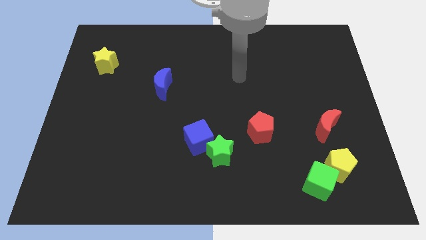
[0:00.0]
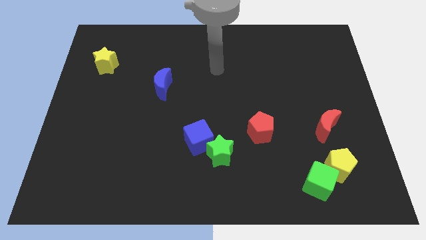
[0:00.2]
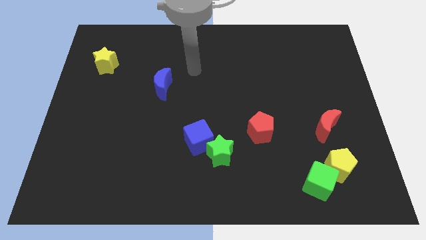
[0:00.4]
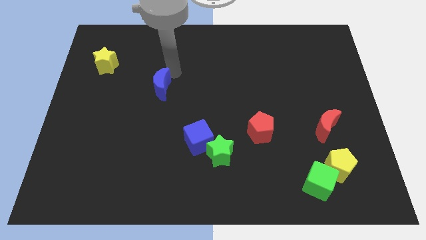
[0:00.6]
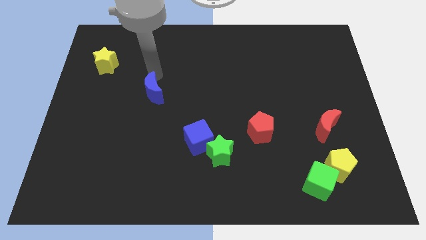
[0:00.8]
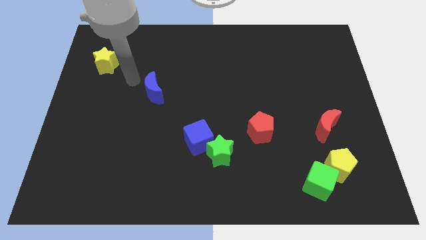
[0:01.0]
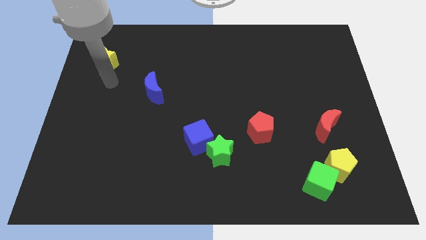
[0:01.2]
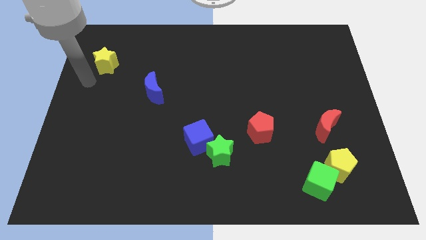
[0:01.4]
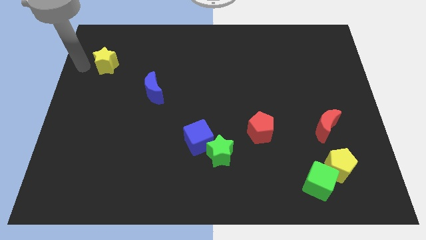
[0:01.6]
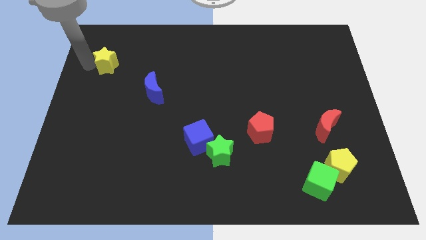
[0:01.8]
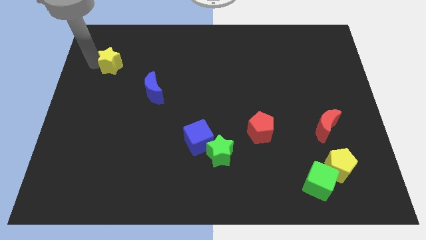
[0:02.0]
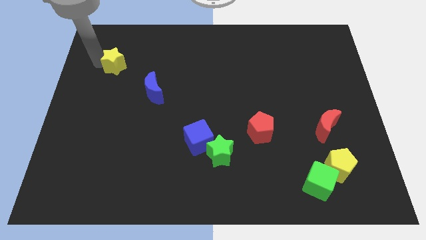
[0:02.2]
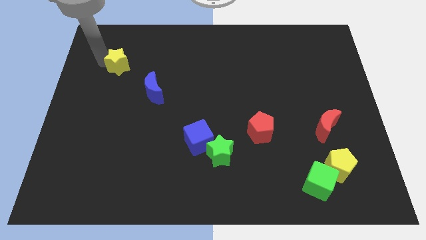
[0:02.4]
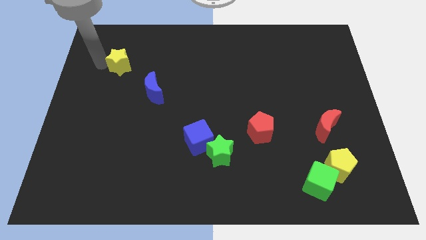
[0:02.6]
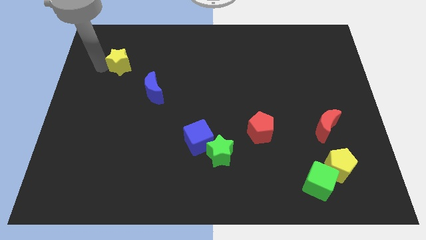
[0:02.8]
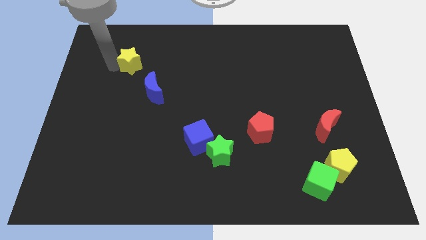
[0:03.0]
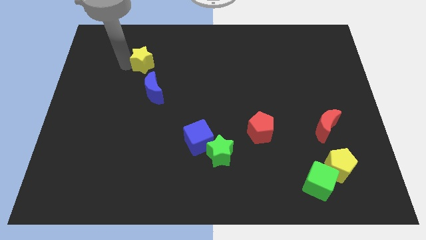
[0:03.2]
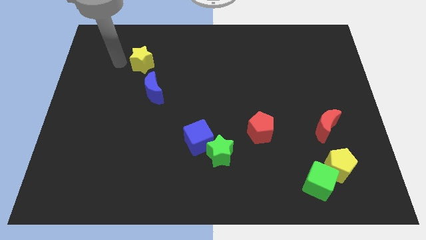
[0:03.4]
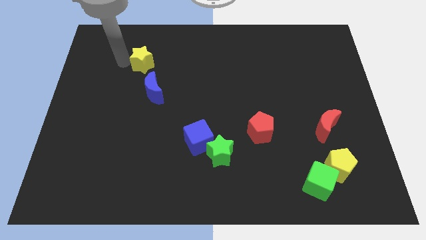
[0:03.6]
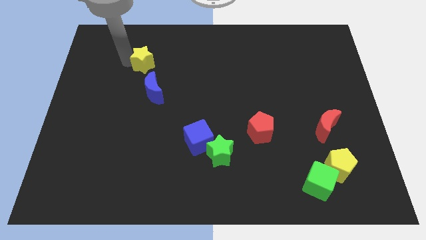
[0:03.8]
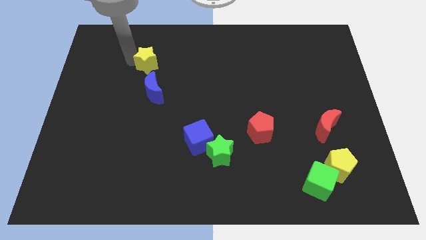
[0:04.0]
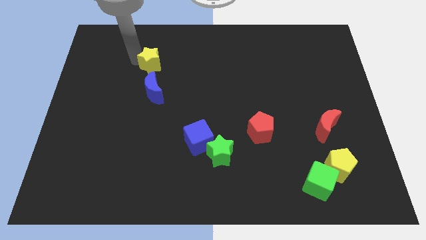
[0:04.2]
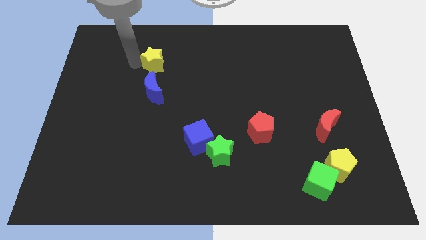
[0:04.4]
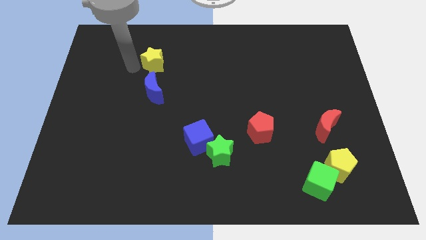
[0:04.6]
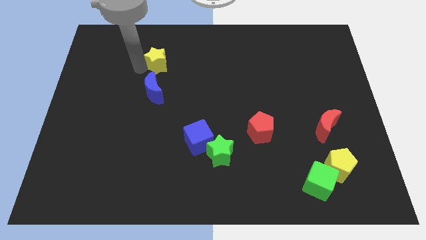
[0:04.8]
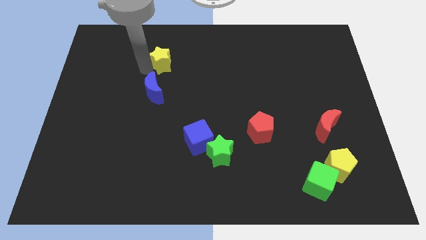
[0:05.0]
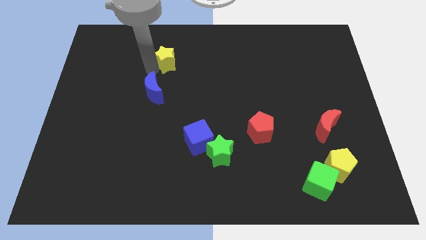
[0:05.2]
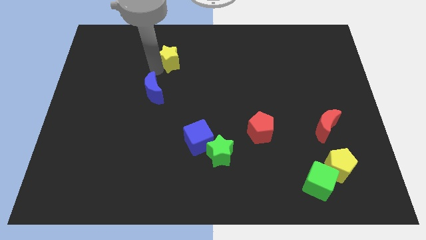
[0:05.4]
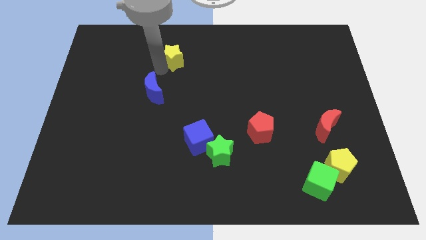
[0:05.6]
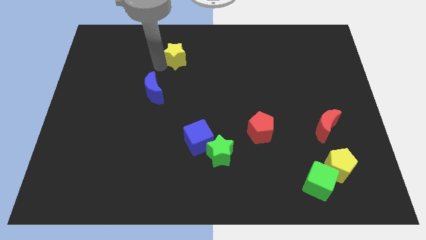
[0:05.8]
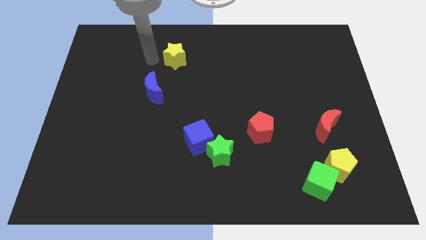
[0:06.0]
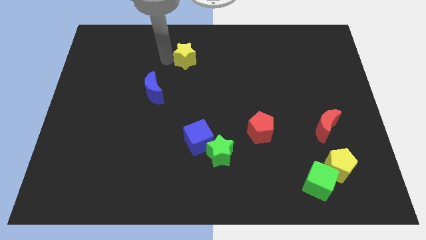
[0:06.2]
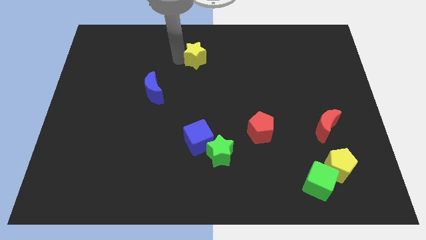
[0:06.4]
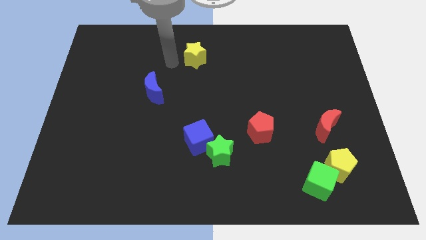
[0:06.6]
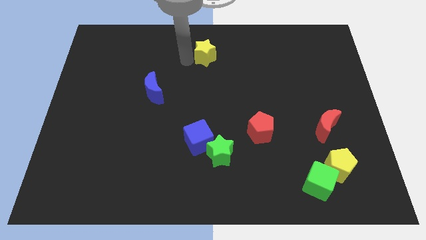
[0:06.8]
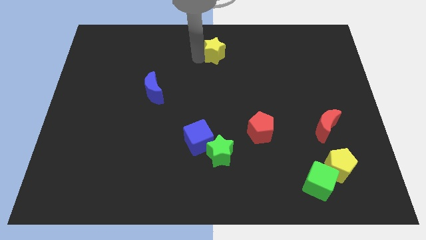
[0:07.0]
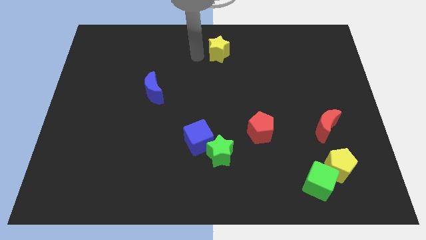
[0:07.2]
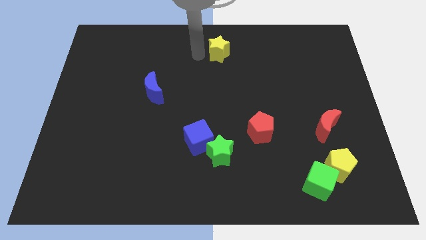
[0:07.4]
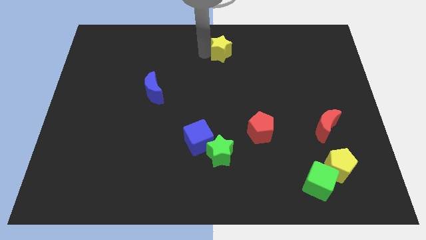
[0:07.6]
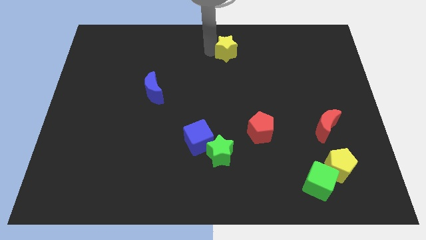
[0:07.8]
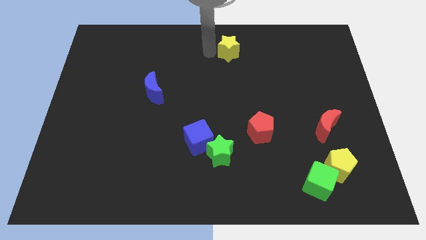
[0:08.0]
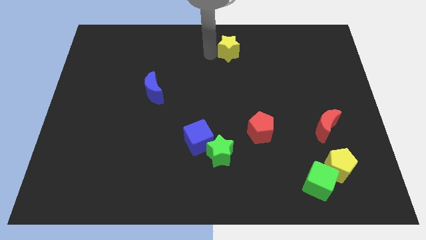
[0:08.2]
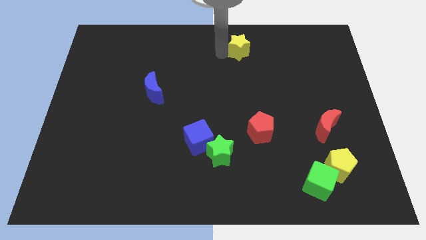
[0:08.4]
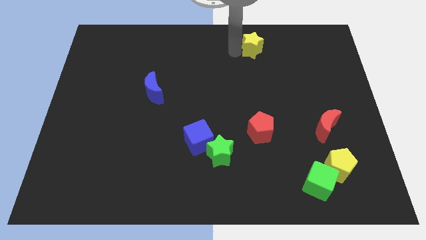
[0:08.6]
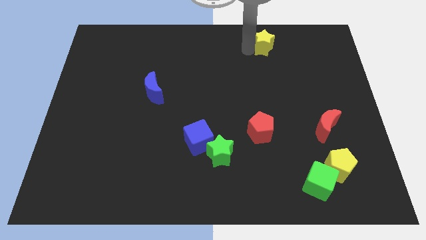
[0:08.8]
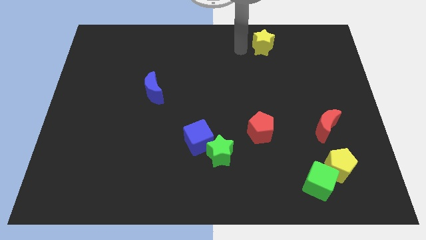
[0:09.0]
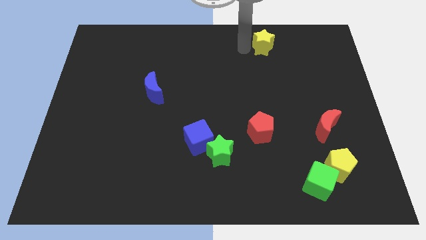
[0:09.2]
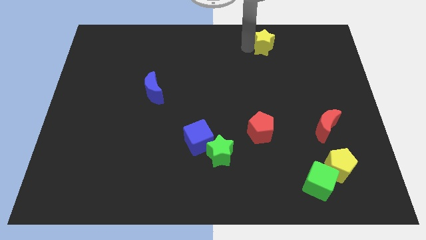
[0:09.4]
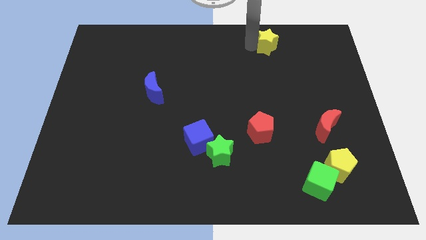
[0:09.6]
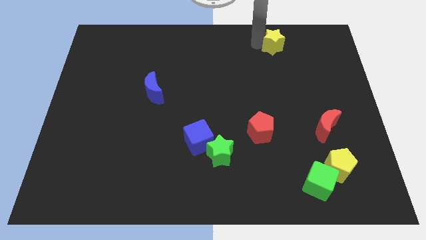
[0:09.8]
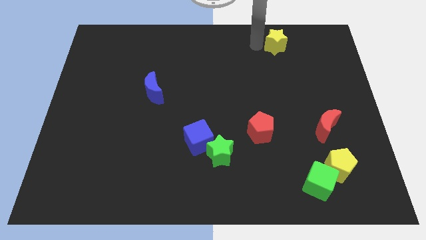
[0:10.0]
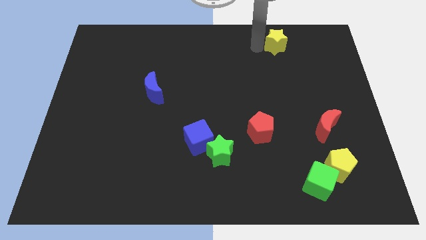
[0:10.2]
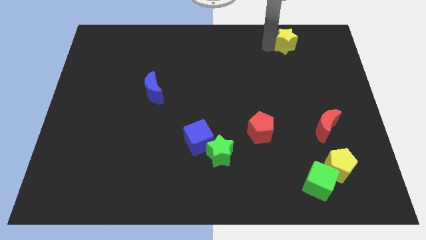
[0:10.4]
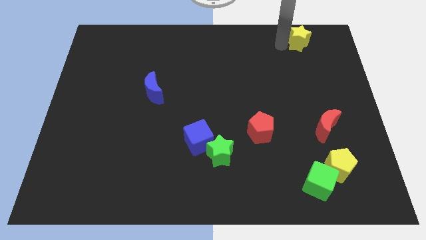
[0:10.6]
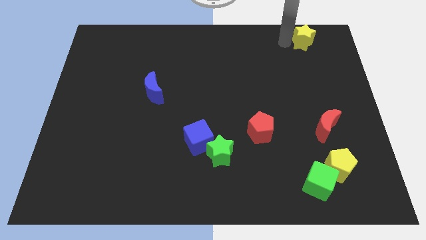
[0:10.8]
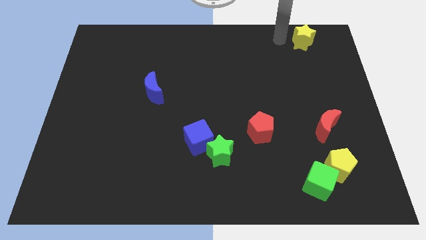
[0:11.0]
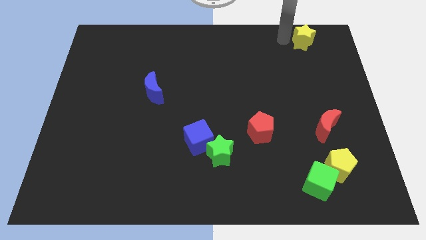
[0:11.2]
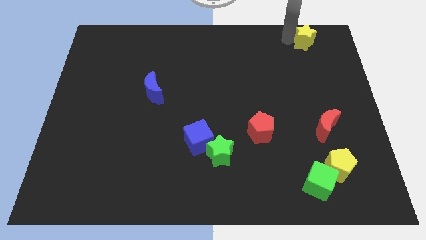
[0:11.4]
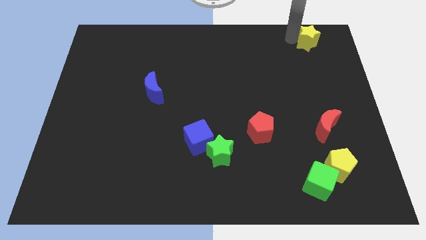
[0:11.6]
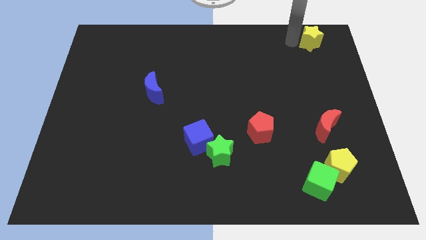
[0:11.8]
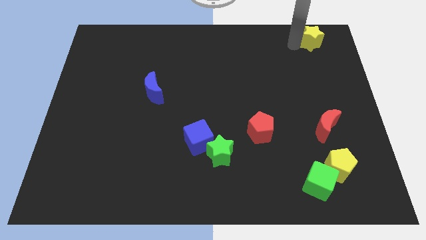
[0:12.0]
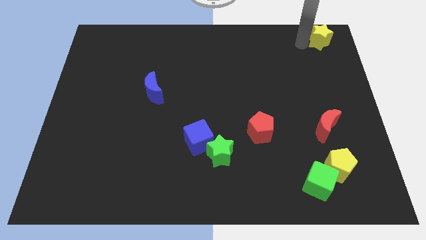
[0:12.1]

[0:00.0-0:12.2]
move the yellow star to the top right corner
